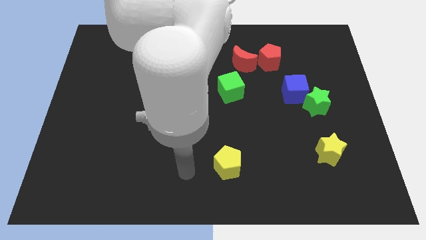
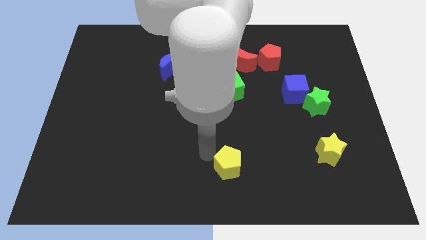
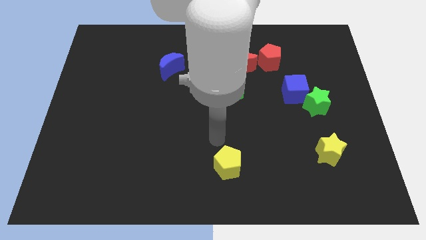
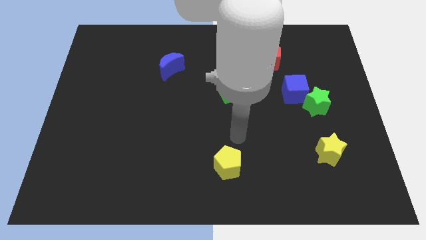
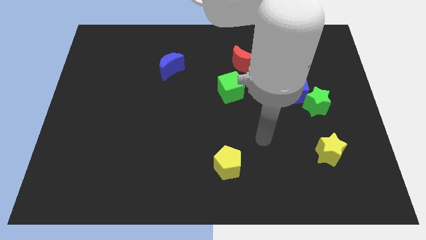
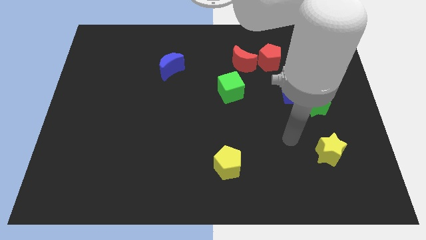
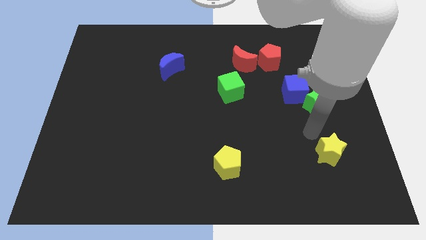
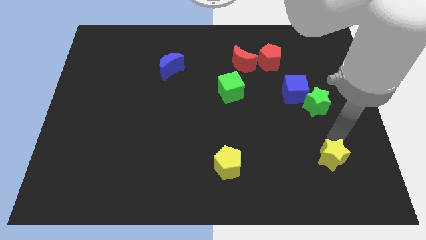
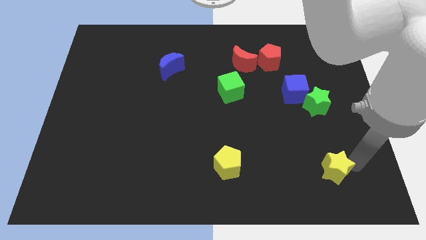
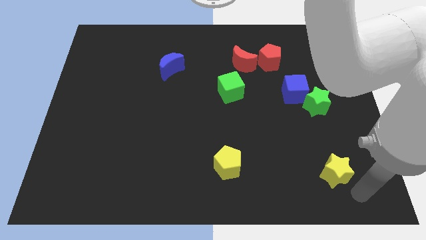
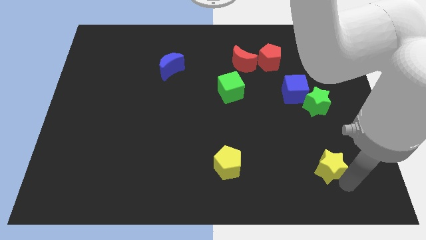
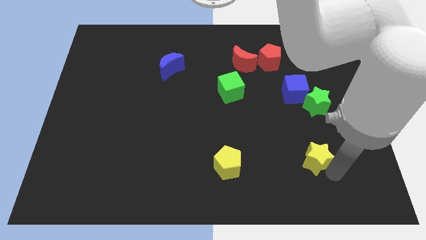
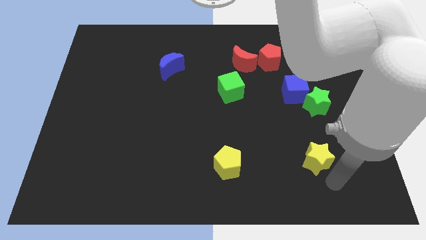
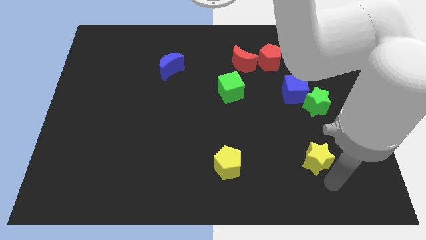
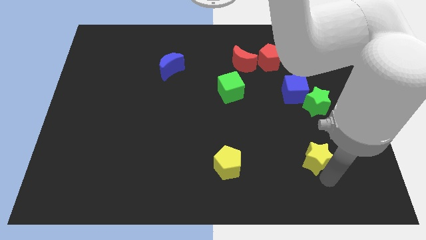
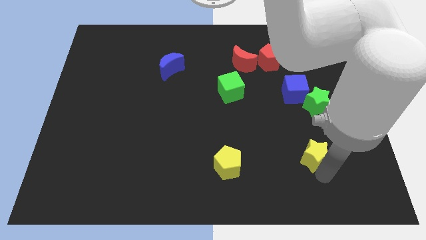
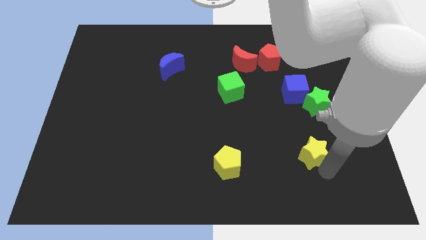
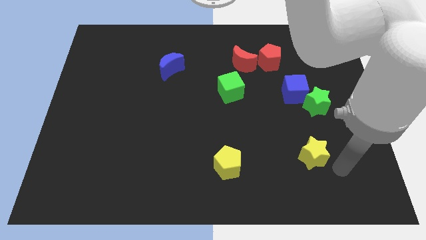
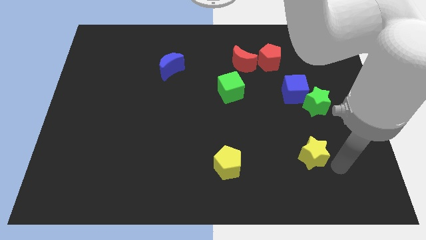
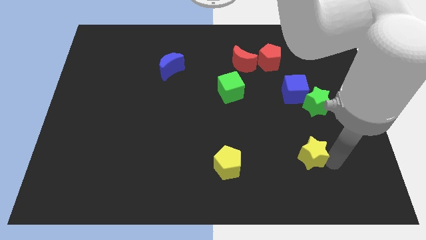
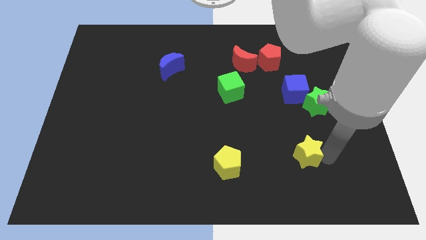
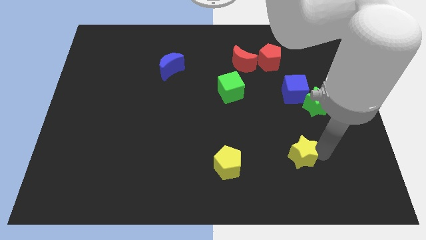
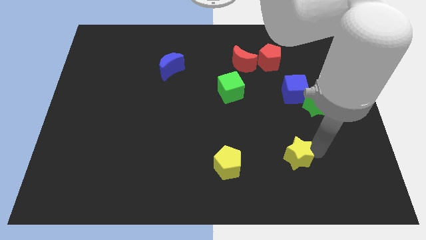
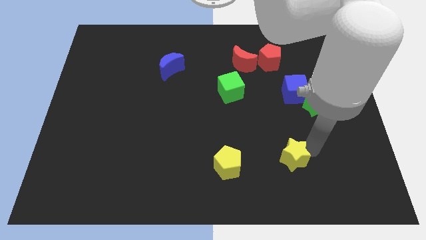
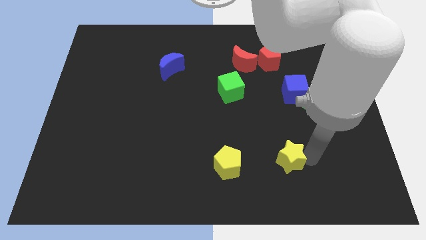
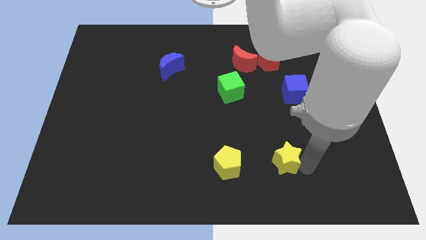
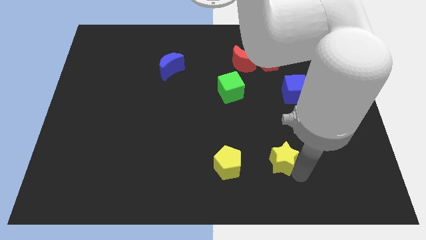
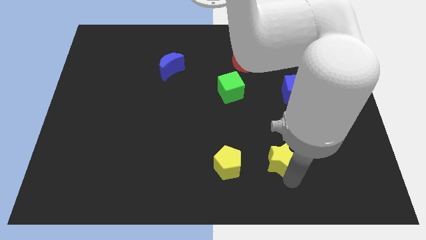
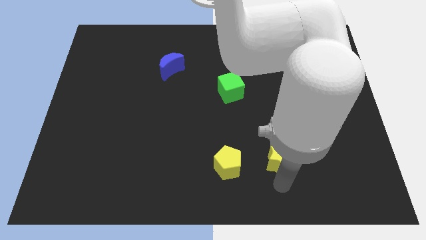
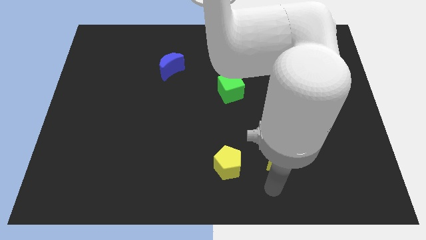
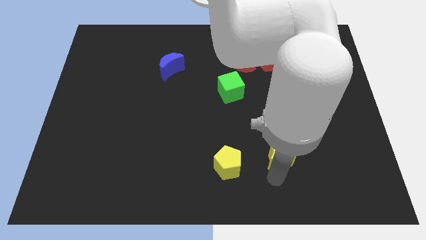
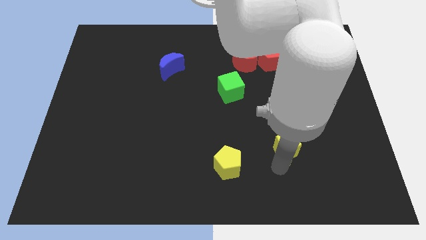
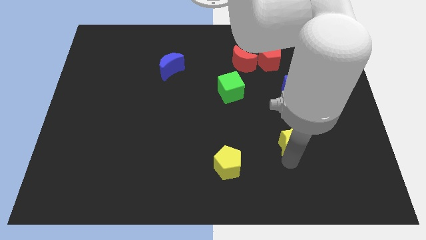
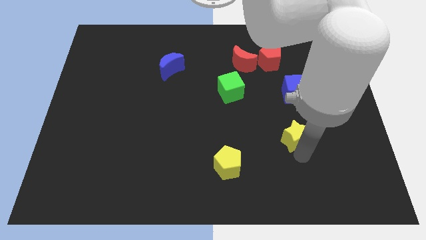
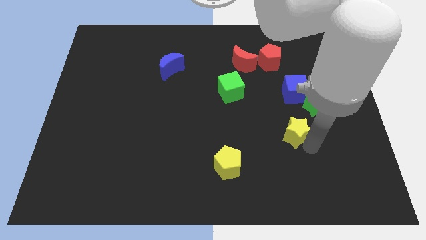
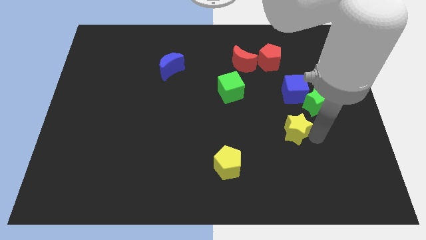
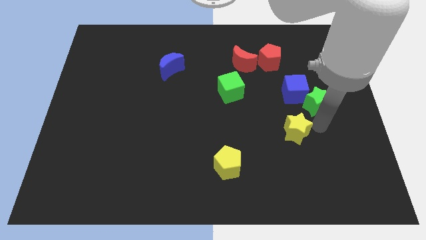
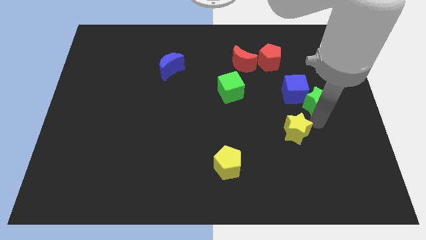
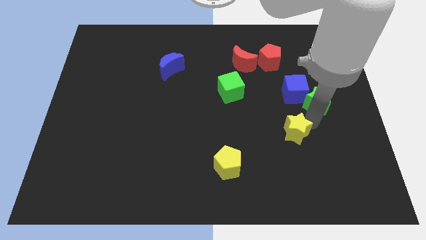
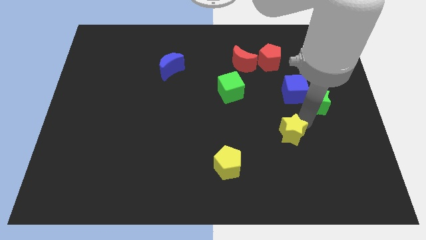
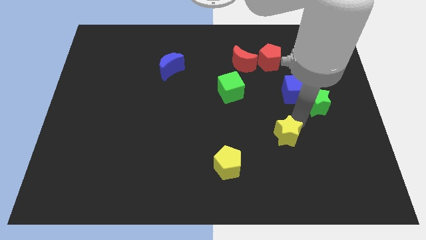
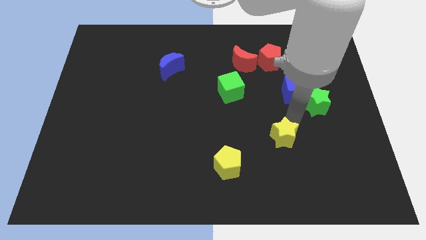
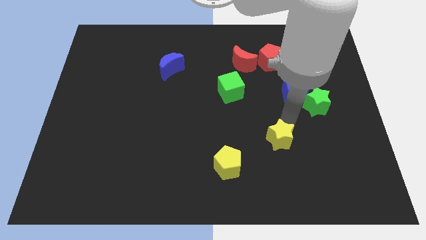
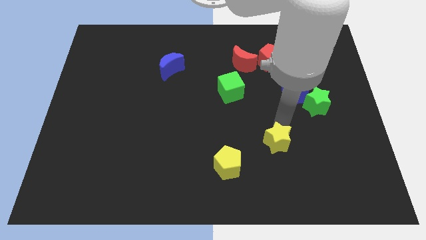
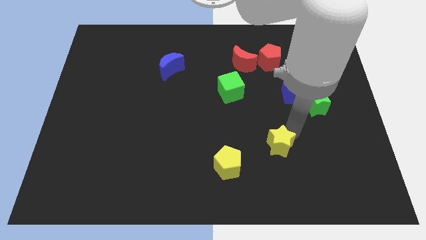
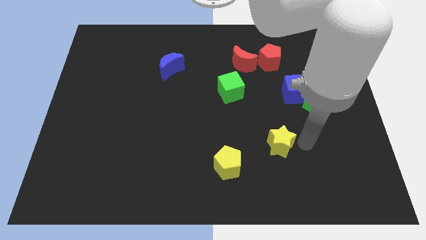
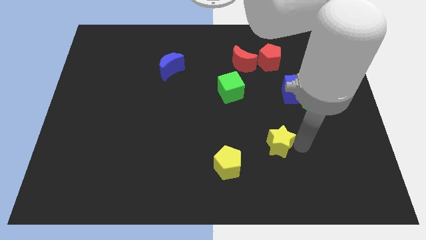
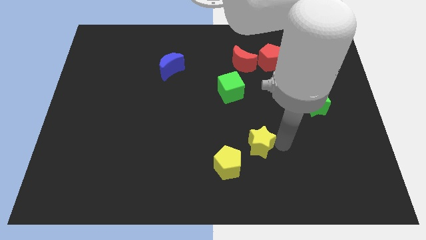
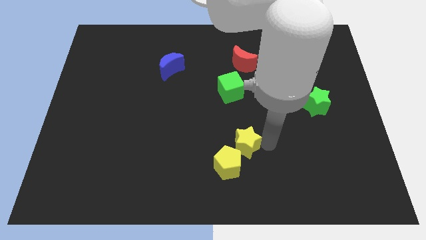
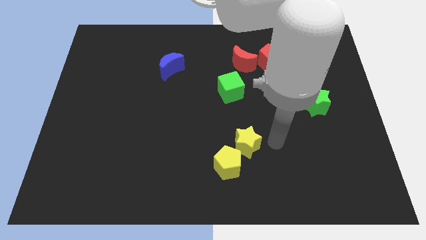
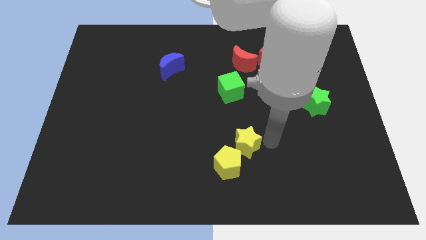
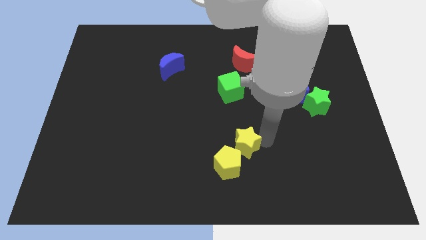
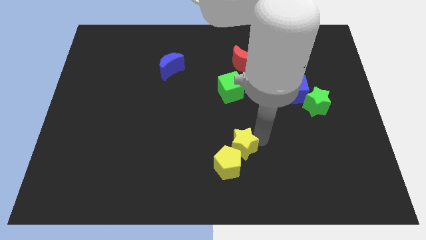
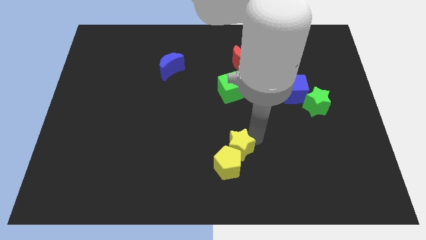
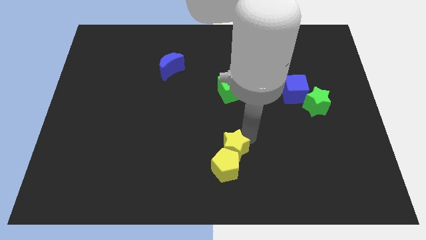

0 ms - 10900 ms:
push the yellow star left

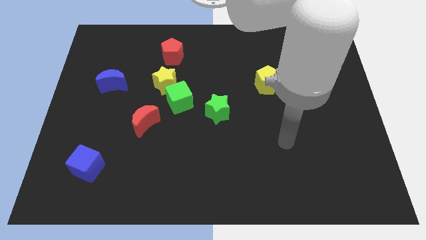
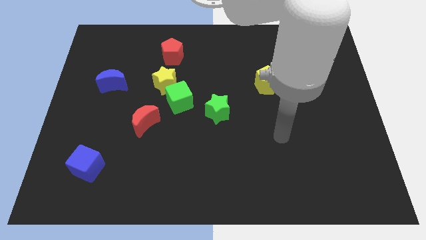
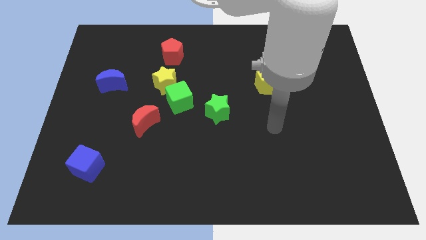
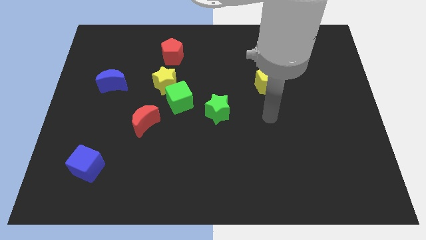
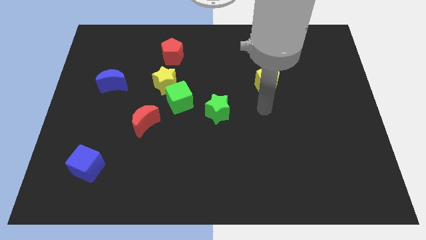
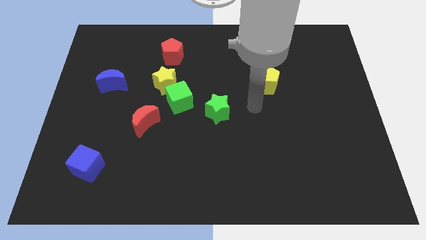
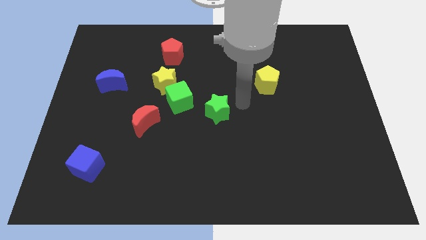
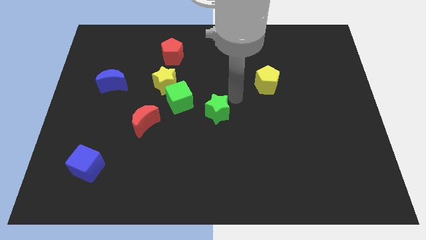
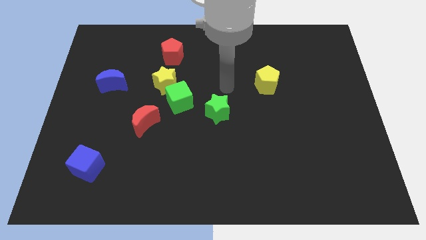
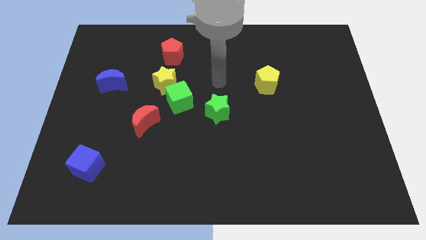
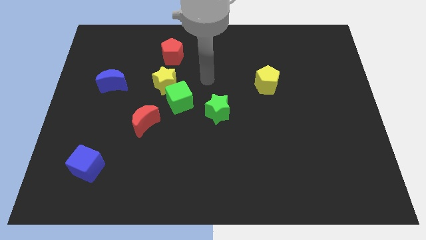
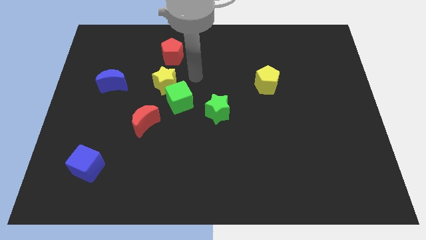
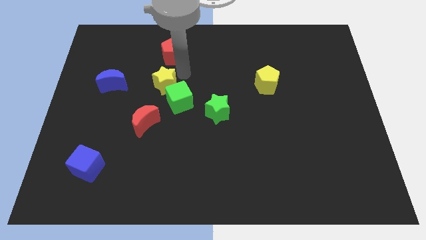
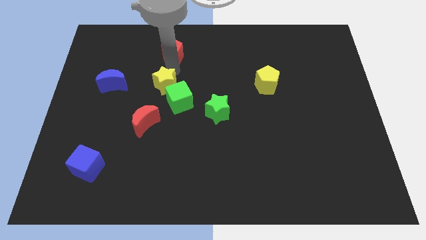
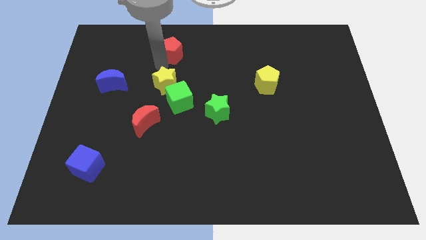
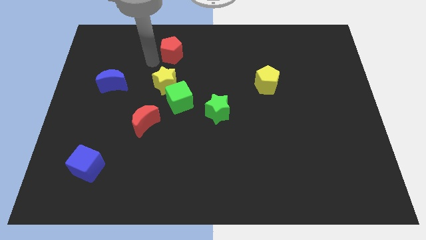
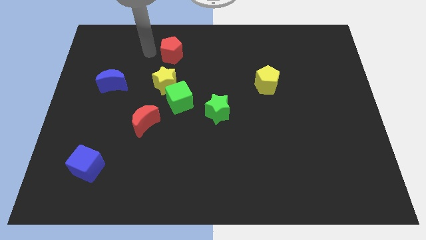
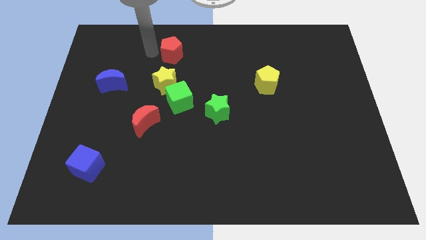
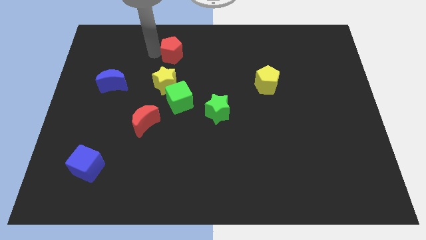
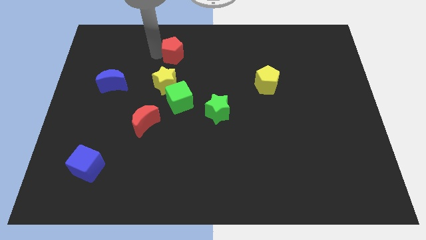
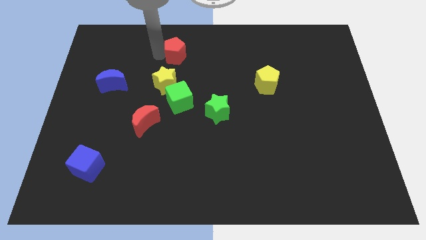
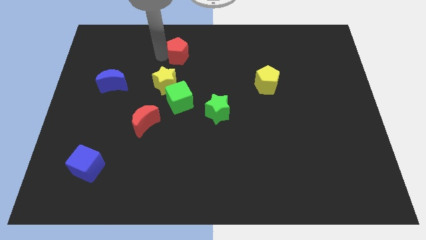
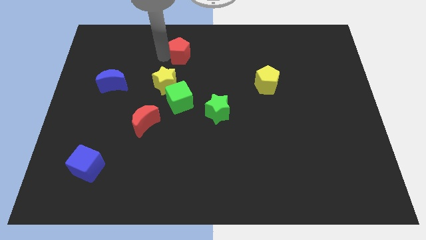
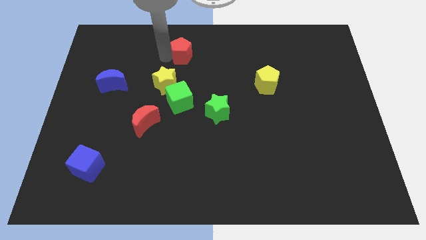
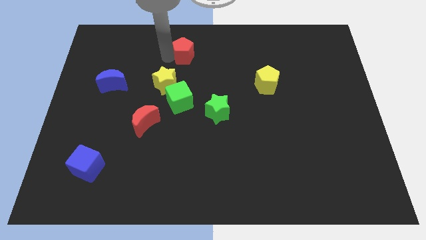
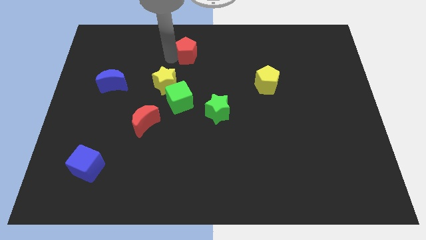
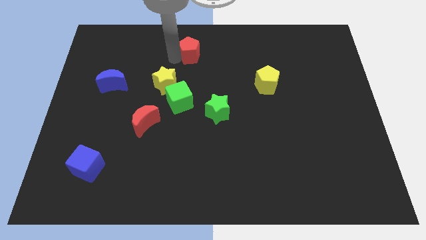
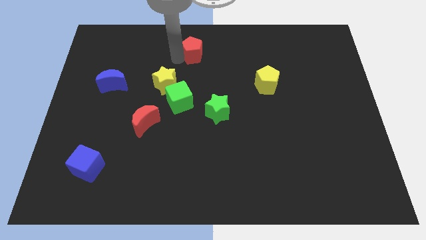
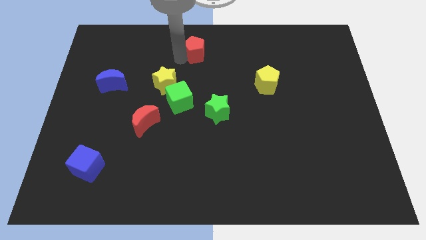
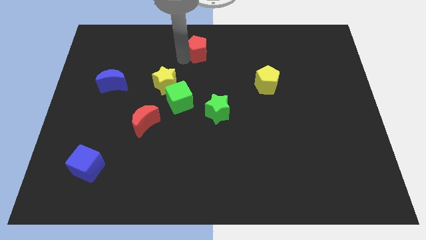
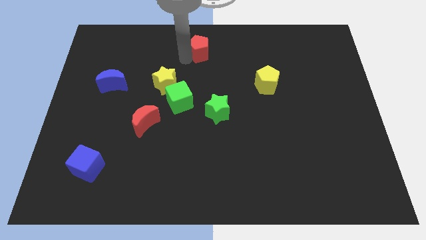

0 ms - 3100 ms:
slightly push the red pentagon right
